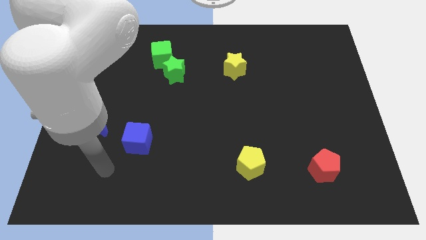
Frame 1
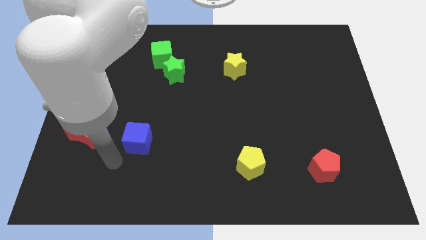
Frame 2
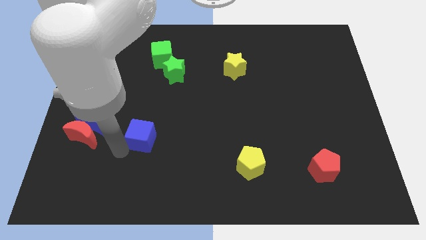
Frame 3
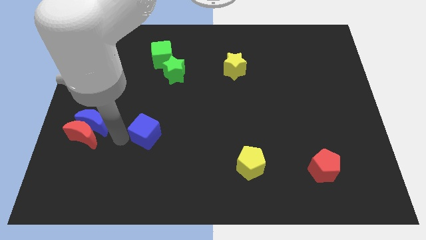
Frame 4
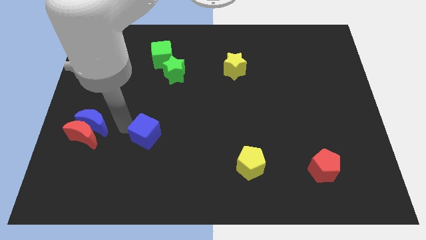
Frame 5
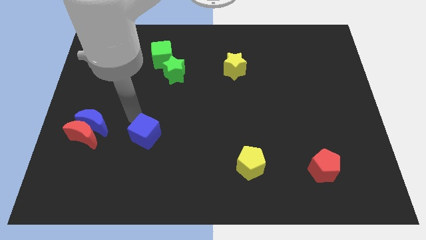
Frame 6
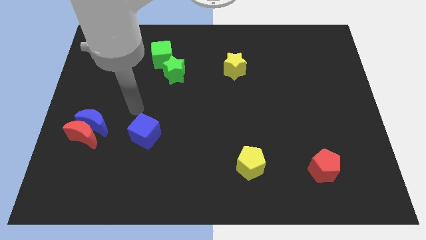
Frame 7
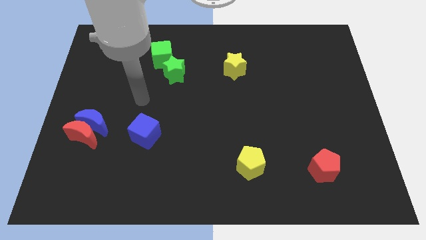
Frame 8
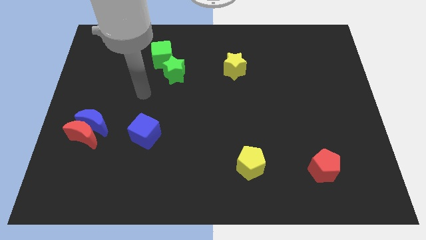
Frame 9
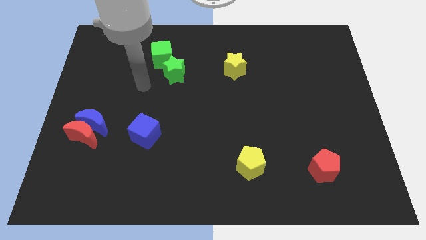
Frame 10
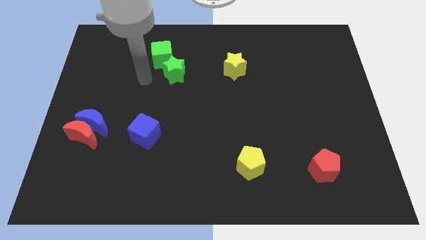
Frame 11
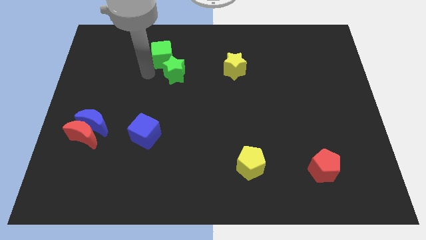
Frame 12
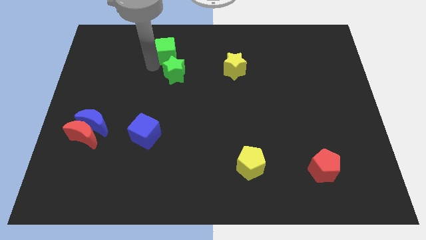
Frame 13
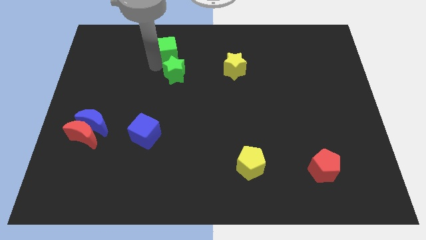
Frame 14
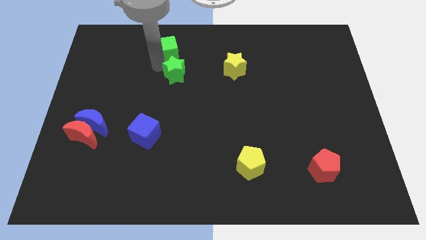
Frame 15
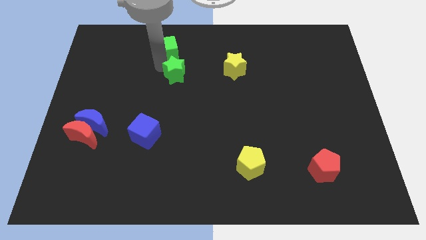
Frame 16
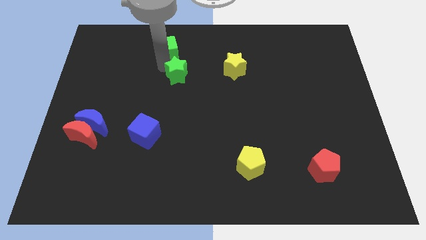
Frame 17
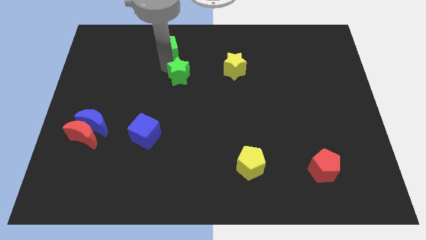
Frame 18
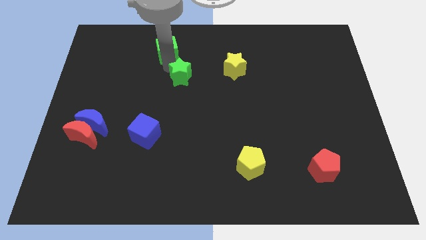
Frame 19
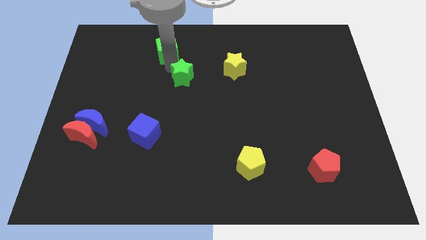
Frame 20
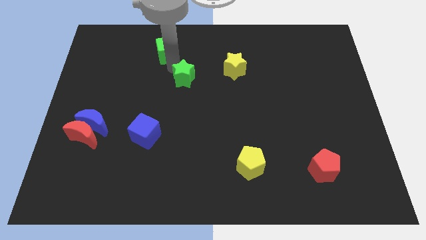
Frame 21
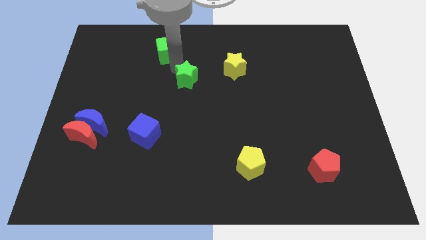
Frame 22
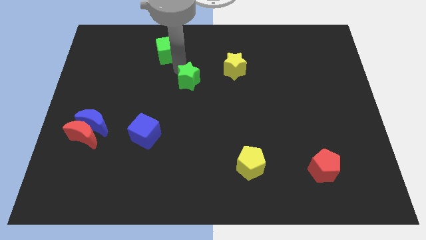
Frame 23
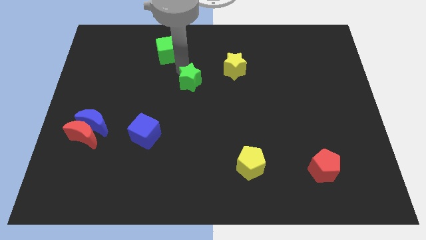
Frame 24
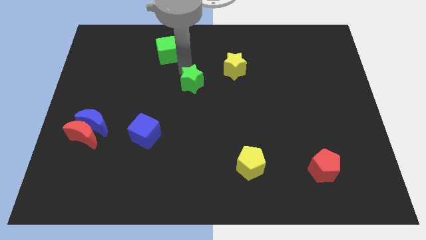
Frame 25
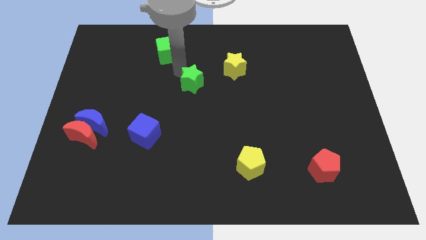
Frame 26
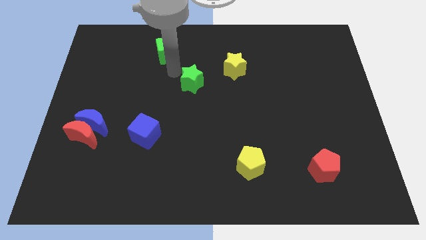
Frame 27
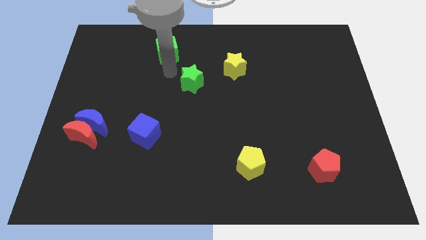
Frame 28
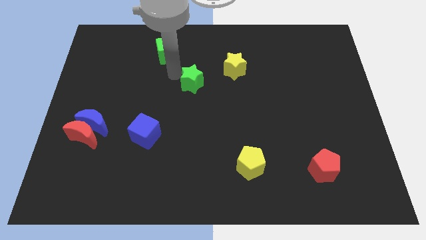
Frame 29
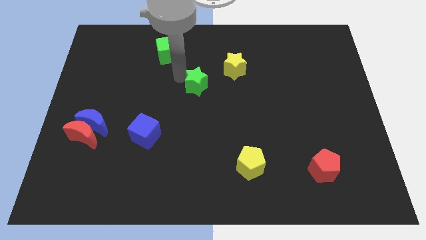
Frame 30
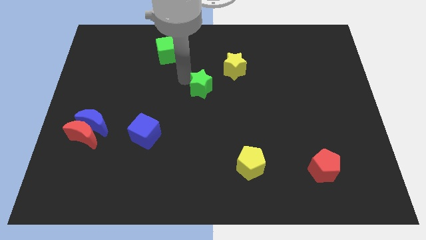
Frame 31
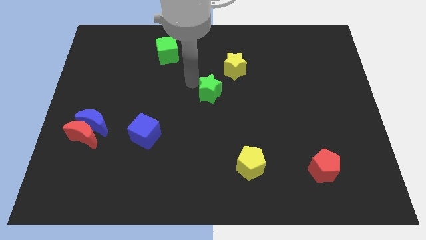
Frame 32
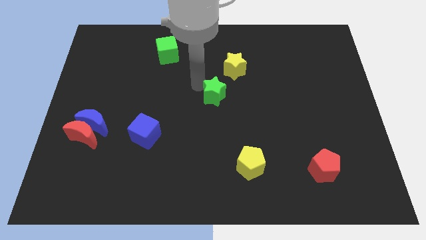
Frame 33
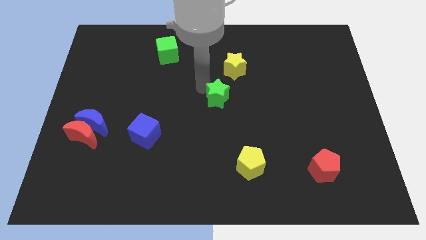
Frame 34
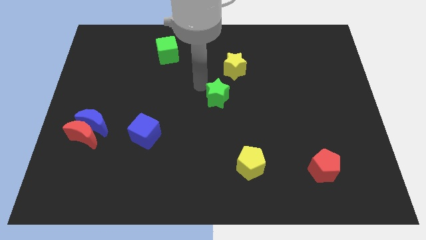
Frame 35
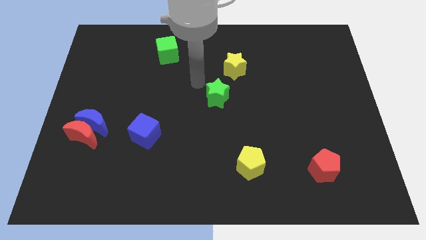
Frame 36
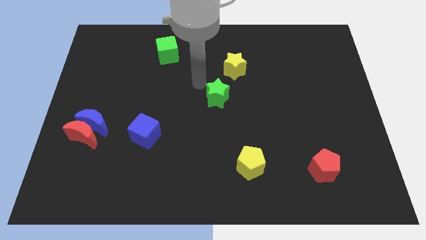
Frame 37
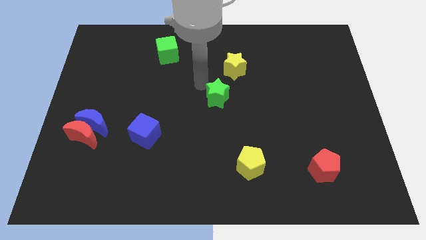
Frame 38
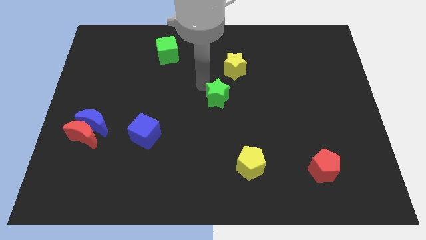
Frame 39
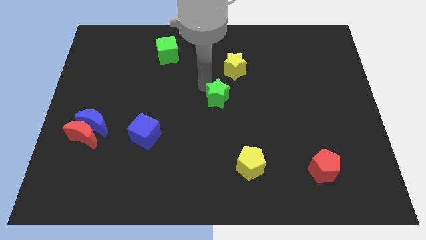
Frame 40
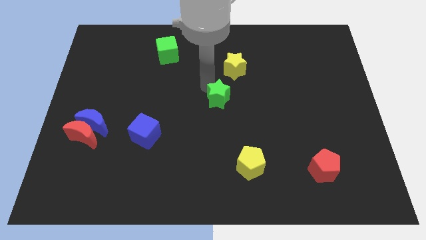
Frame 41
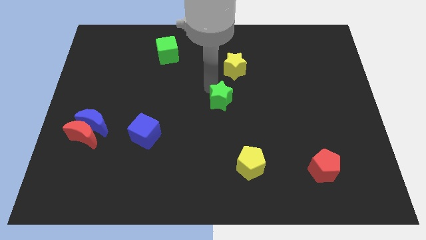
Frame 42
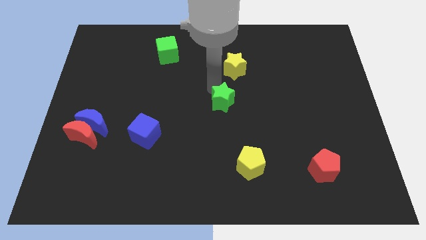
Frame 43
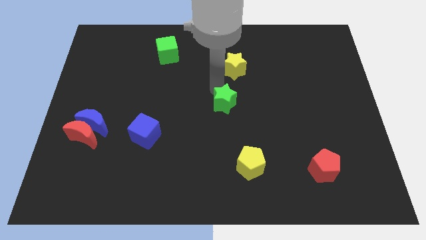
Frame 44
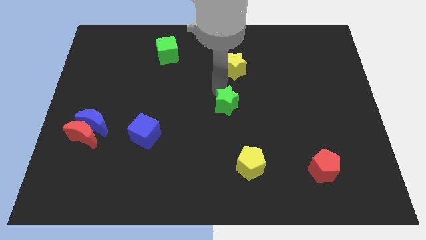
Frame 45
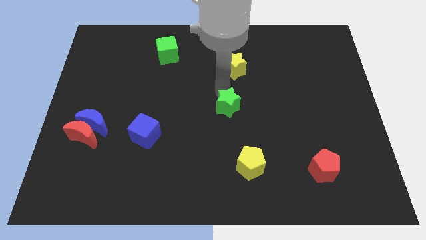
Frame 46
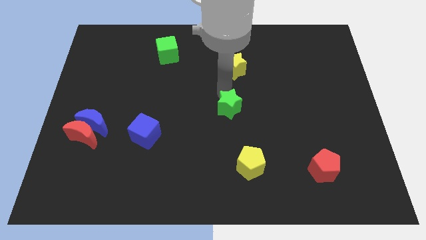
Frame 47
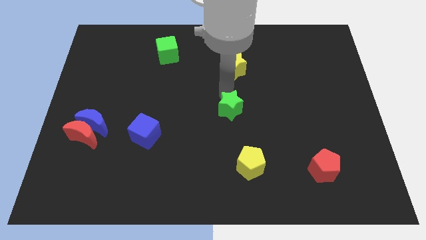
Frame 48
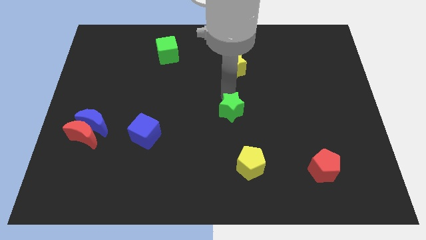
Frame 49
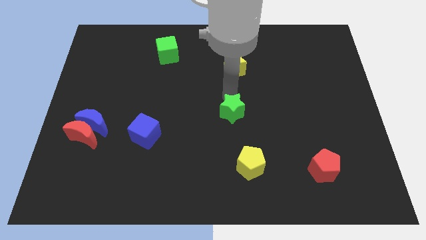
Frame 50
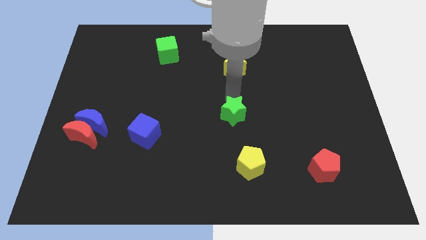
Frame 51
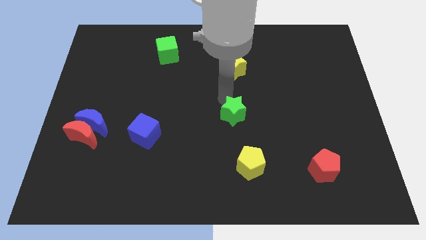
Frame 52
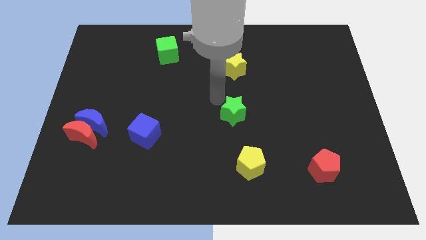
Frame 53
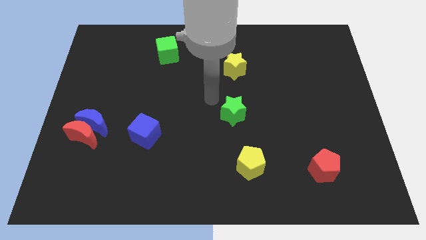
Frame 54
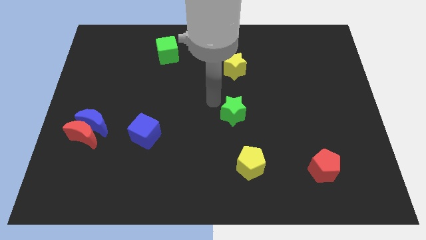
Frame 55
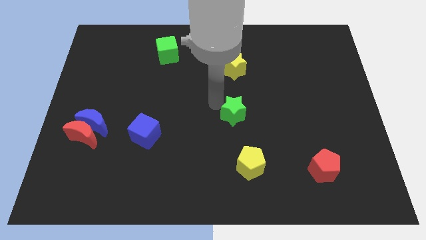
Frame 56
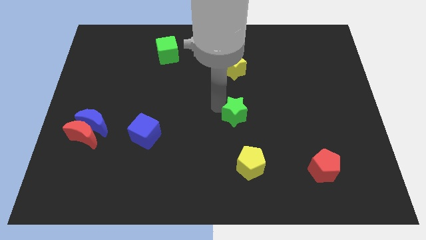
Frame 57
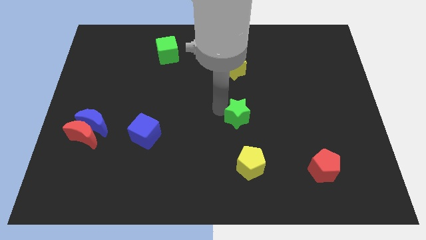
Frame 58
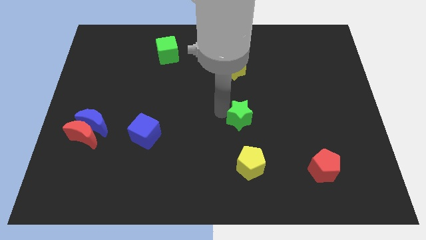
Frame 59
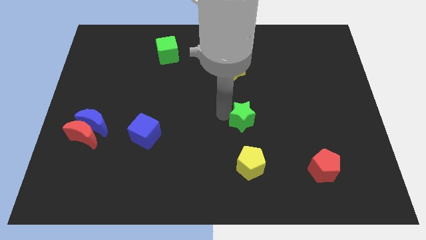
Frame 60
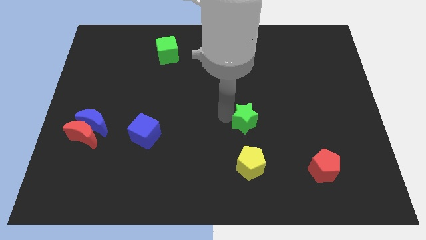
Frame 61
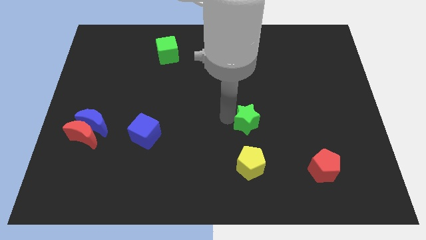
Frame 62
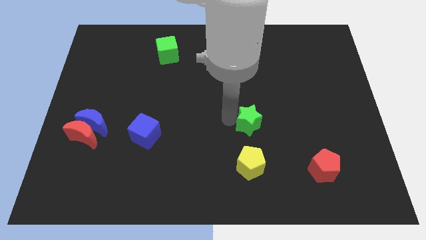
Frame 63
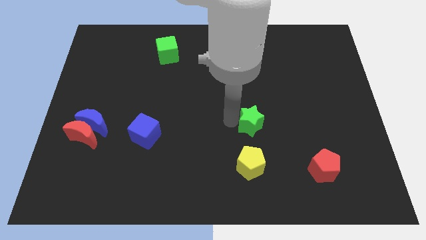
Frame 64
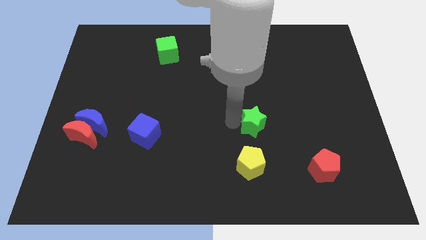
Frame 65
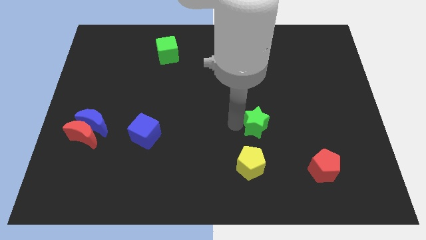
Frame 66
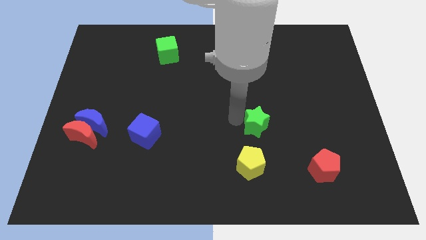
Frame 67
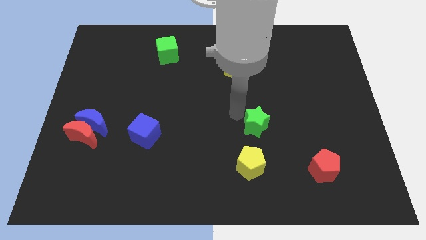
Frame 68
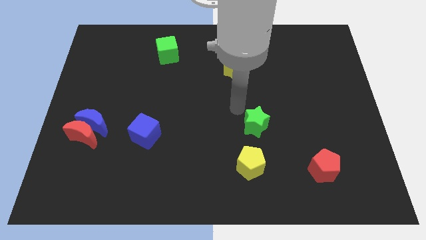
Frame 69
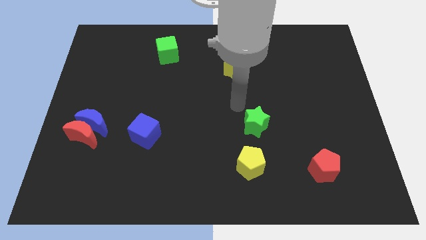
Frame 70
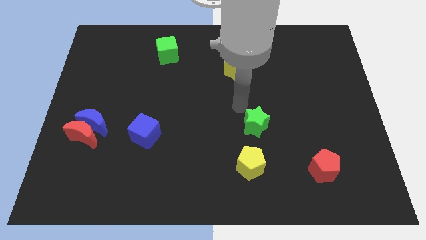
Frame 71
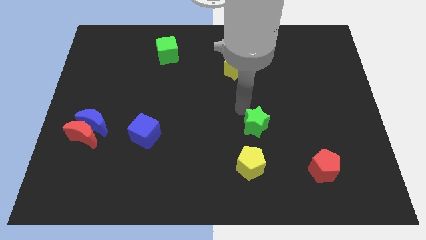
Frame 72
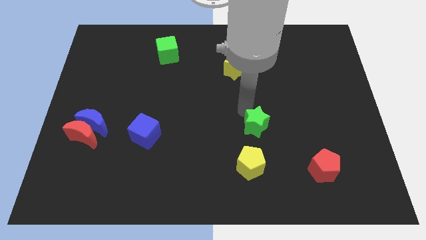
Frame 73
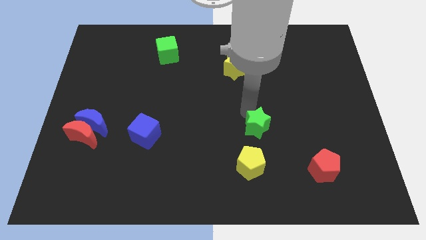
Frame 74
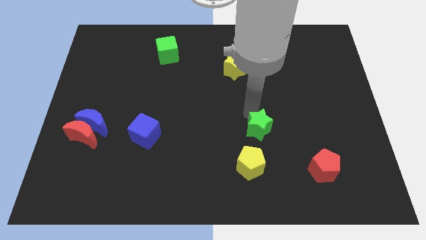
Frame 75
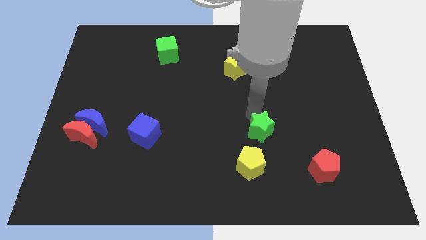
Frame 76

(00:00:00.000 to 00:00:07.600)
move the green star to the top right side of the yellow pentagon
